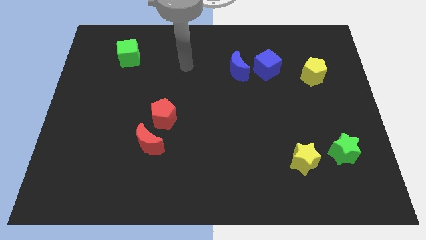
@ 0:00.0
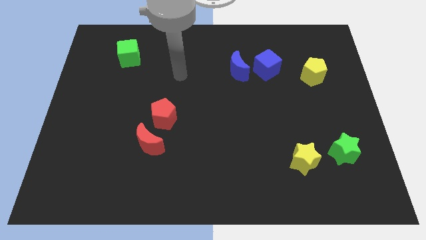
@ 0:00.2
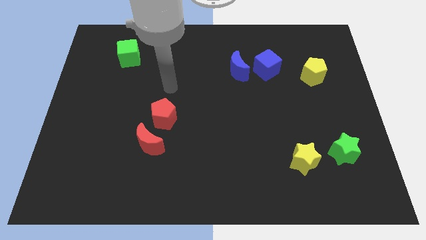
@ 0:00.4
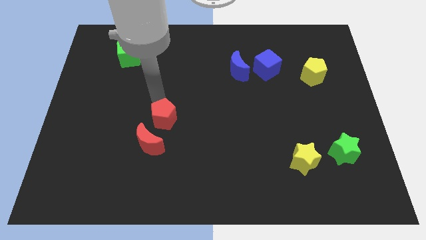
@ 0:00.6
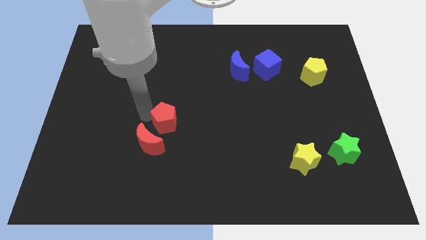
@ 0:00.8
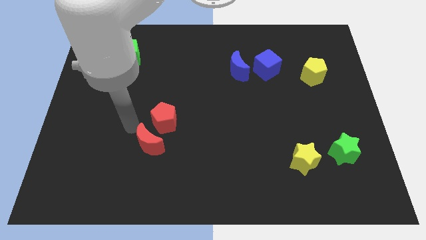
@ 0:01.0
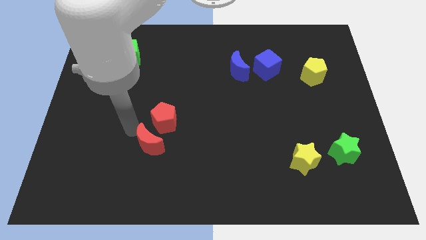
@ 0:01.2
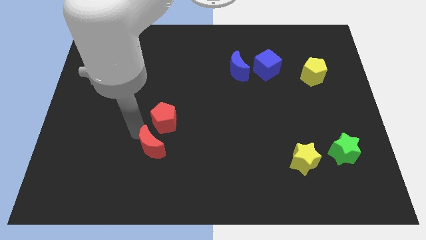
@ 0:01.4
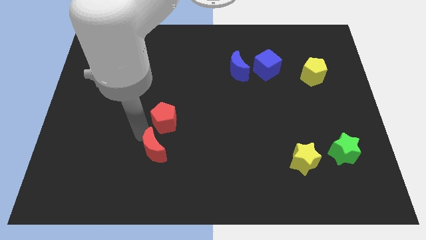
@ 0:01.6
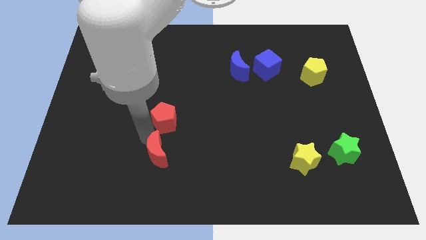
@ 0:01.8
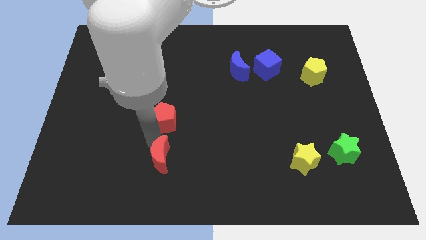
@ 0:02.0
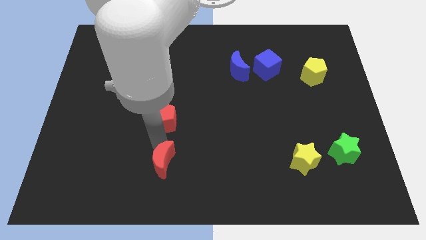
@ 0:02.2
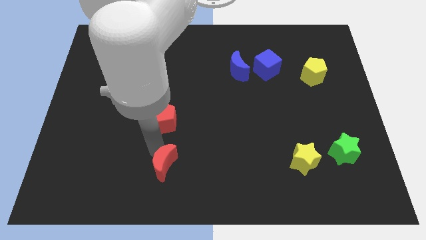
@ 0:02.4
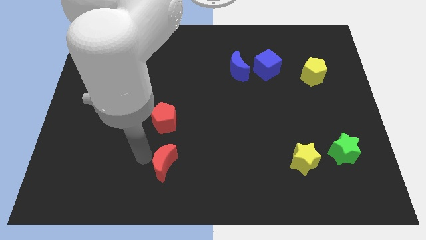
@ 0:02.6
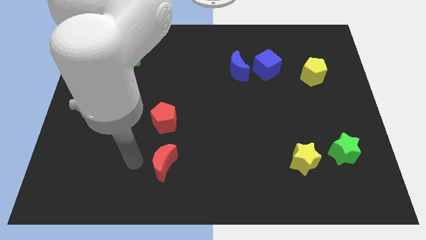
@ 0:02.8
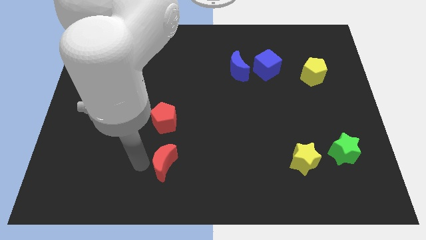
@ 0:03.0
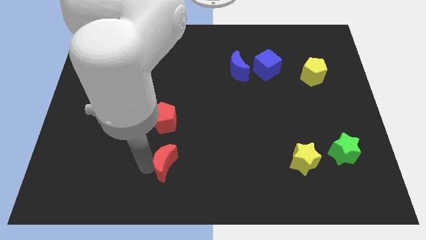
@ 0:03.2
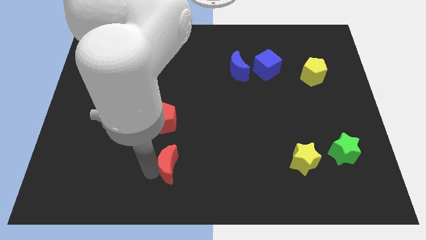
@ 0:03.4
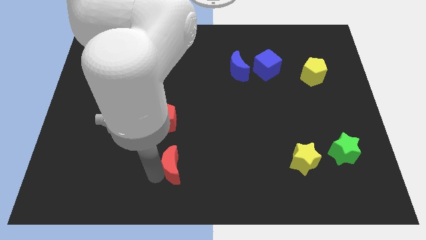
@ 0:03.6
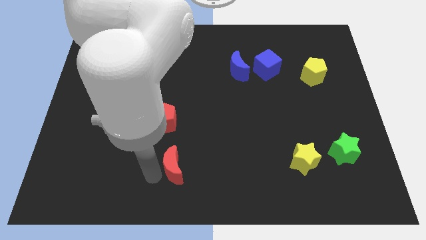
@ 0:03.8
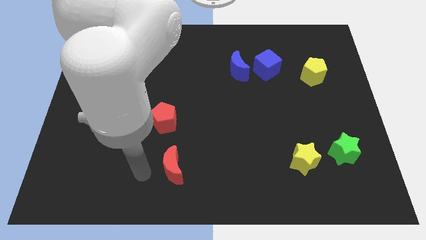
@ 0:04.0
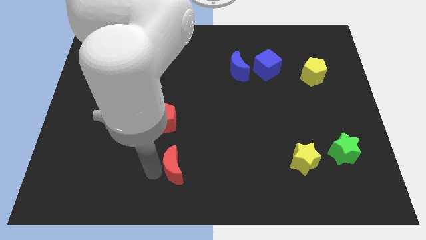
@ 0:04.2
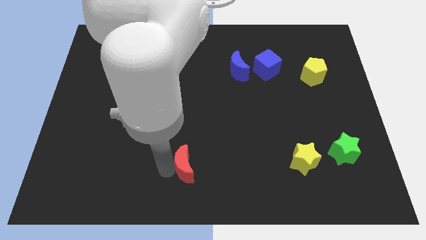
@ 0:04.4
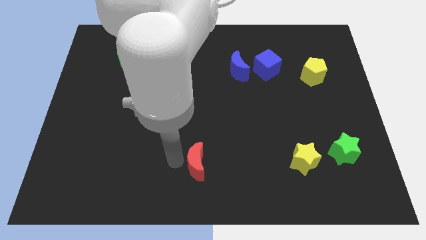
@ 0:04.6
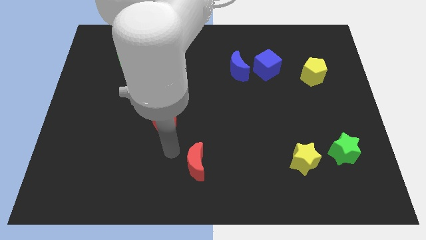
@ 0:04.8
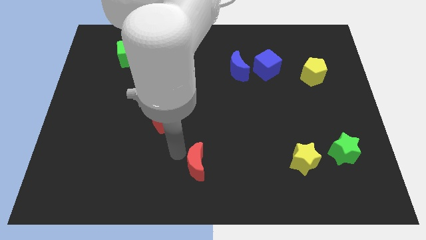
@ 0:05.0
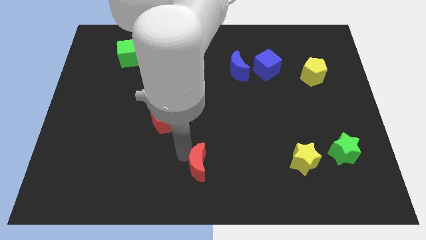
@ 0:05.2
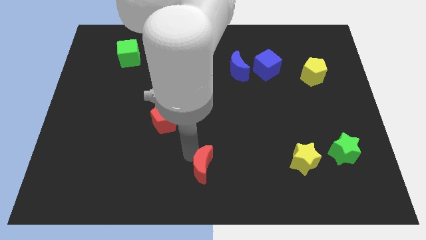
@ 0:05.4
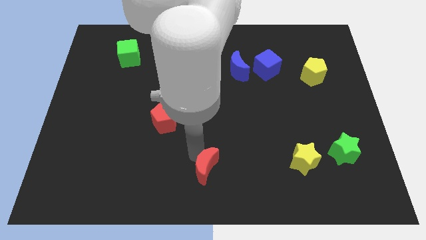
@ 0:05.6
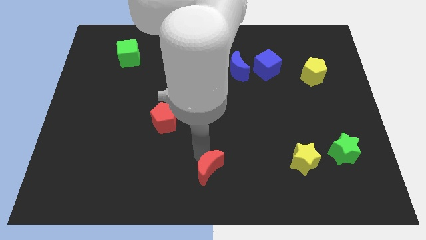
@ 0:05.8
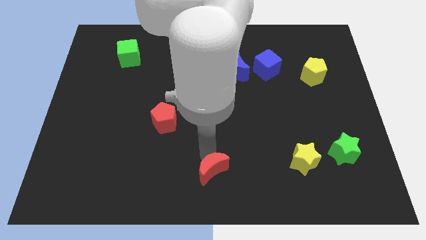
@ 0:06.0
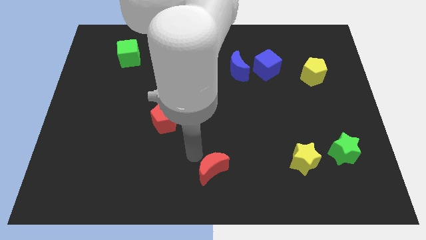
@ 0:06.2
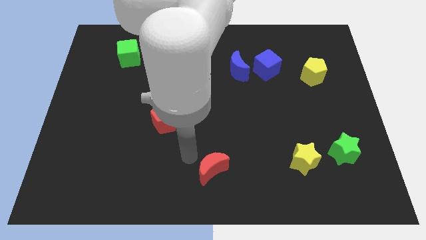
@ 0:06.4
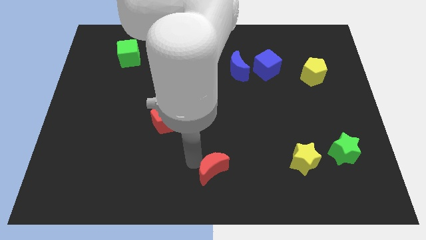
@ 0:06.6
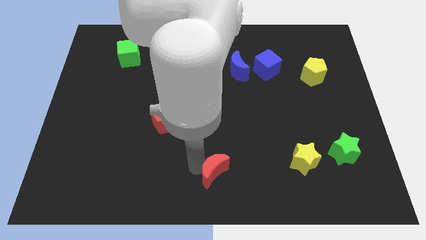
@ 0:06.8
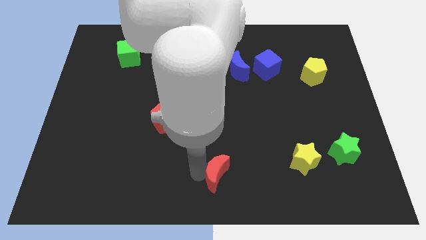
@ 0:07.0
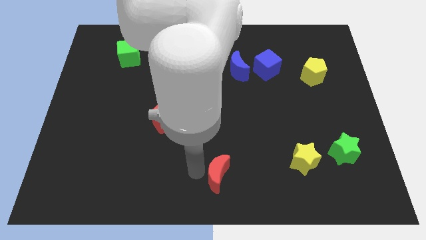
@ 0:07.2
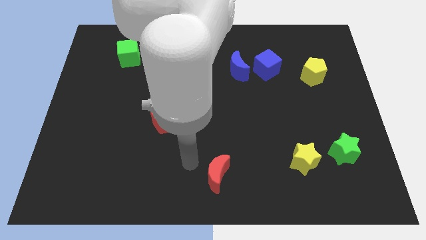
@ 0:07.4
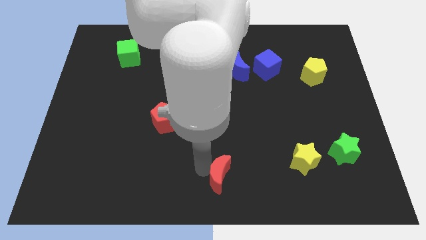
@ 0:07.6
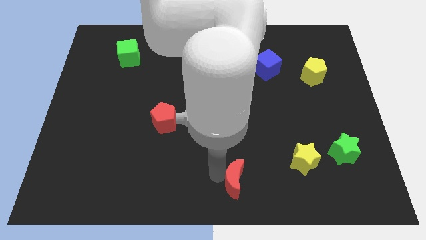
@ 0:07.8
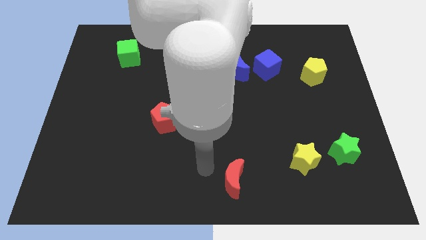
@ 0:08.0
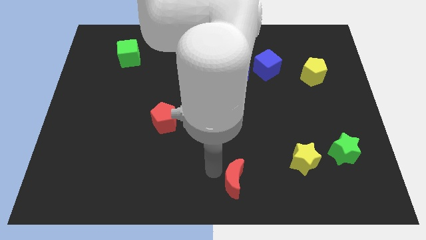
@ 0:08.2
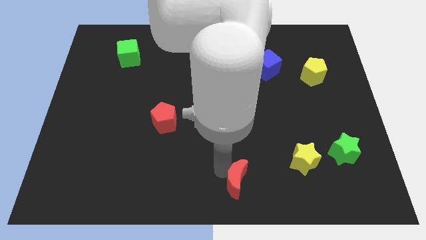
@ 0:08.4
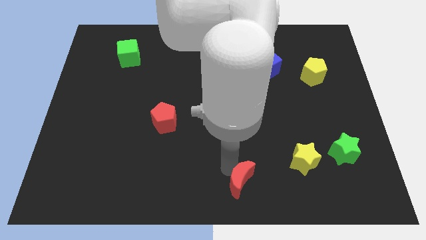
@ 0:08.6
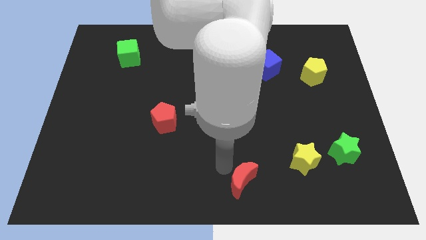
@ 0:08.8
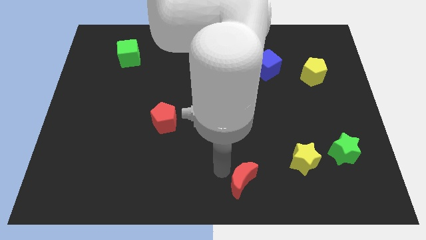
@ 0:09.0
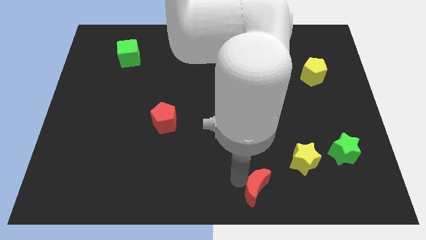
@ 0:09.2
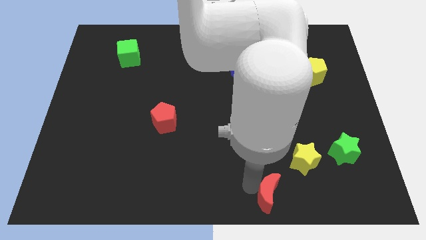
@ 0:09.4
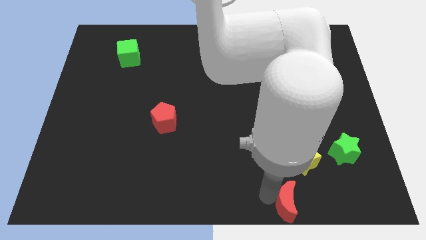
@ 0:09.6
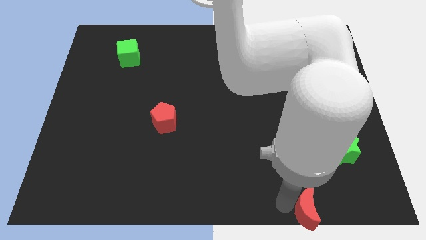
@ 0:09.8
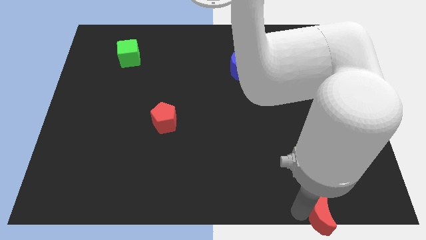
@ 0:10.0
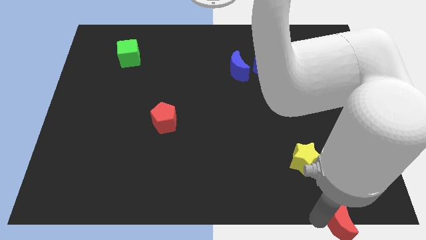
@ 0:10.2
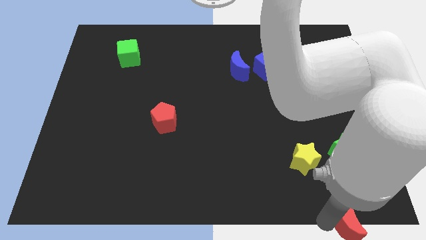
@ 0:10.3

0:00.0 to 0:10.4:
move the red moon to the bottom right of the board
